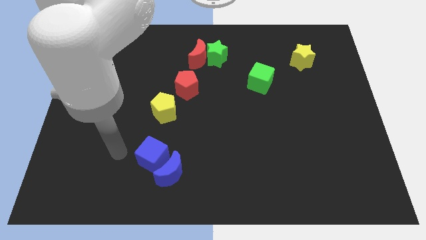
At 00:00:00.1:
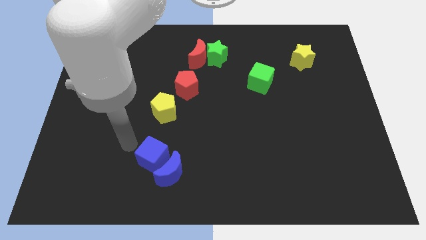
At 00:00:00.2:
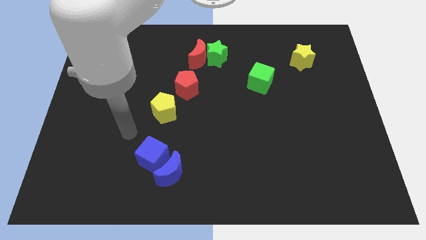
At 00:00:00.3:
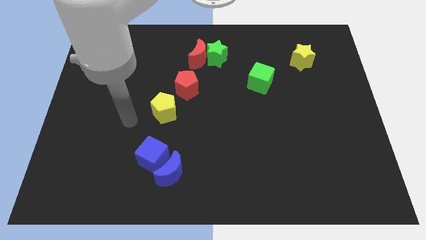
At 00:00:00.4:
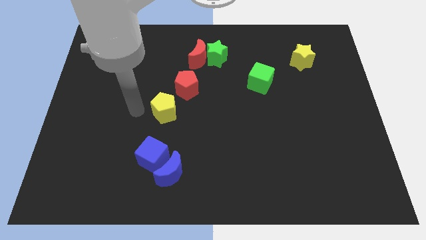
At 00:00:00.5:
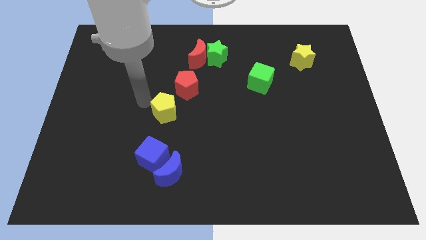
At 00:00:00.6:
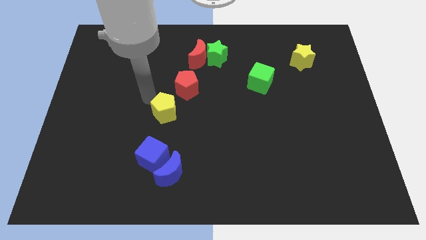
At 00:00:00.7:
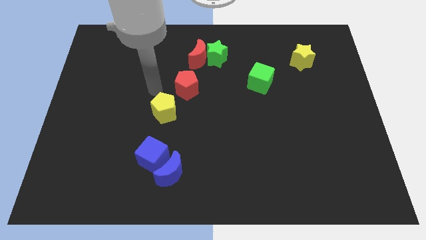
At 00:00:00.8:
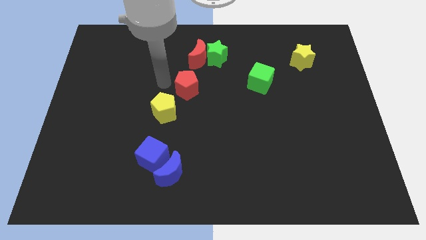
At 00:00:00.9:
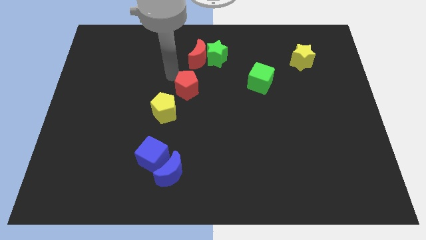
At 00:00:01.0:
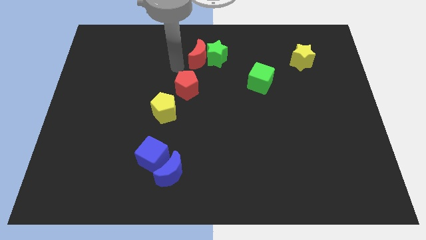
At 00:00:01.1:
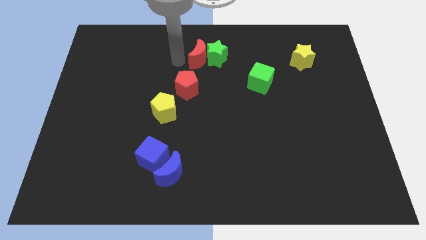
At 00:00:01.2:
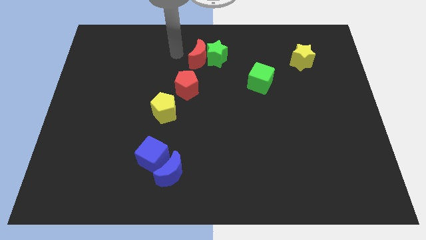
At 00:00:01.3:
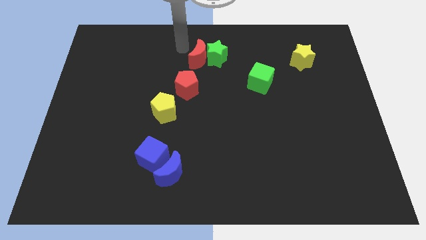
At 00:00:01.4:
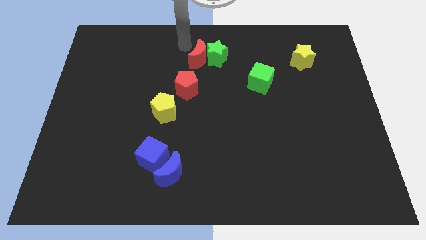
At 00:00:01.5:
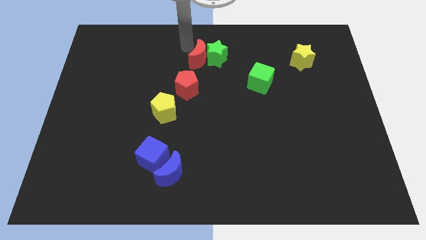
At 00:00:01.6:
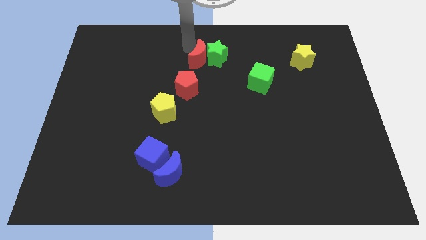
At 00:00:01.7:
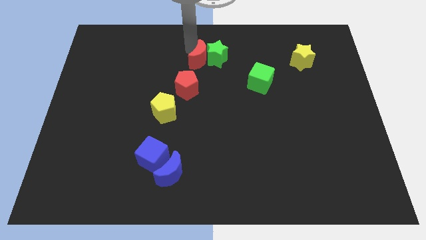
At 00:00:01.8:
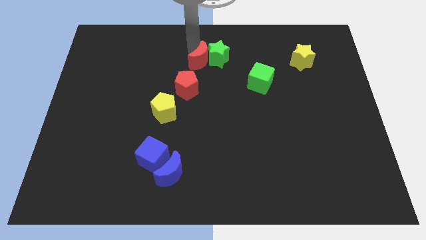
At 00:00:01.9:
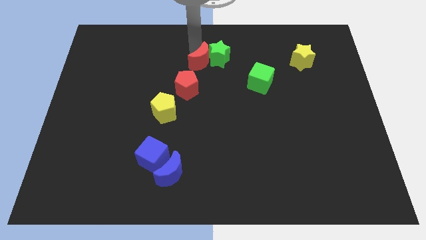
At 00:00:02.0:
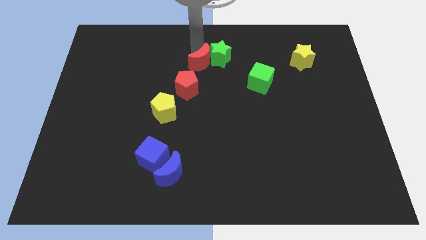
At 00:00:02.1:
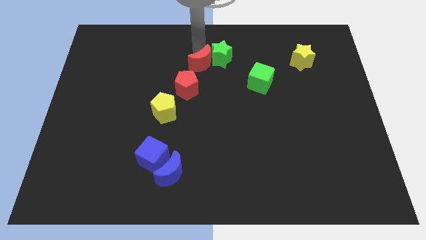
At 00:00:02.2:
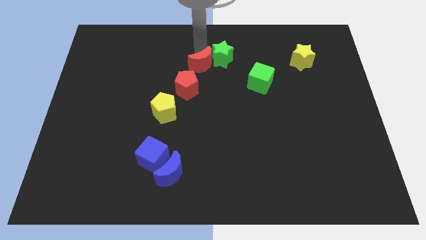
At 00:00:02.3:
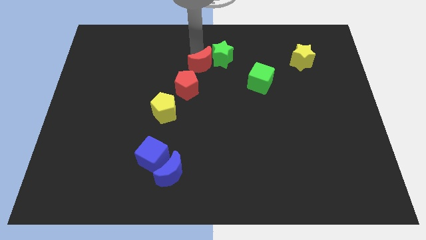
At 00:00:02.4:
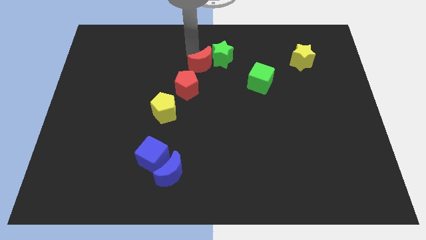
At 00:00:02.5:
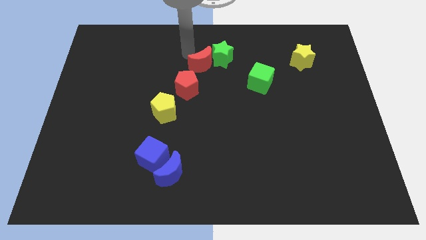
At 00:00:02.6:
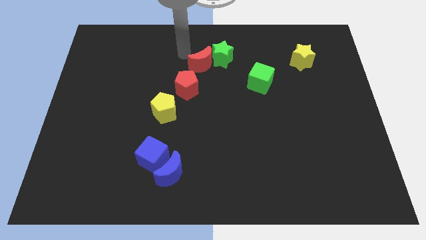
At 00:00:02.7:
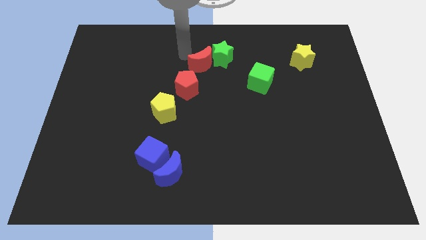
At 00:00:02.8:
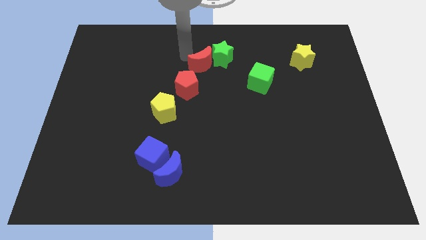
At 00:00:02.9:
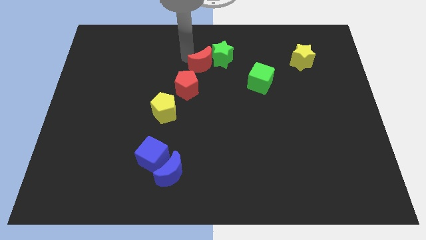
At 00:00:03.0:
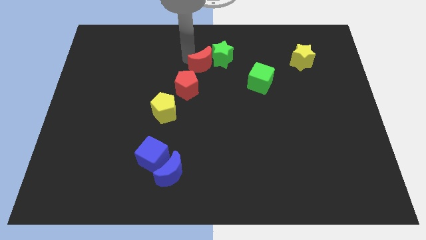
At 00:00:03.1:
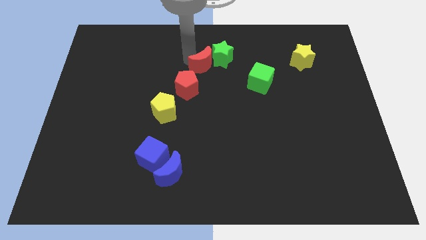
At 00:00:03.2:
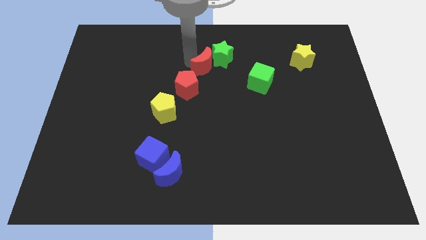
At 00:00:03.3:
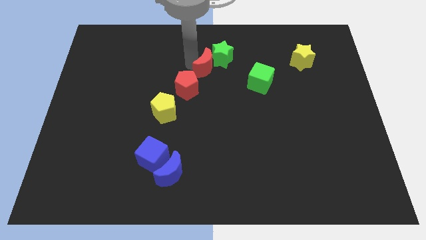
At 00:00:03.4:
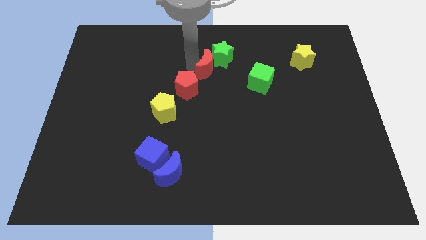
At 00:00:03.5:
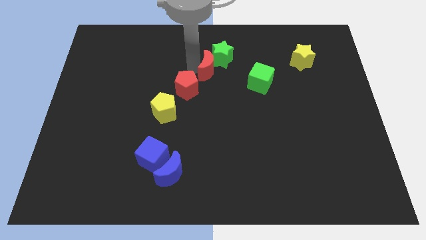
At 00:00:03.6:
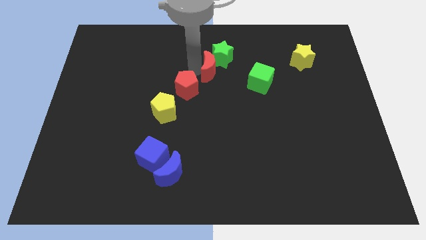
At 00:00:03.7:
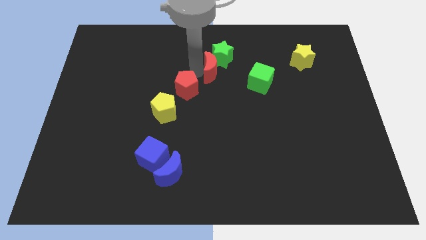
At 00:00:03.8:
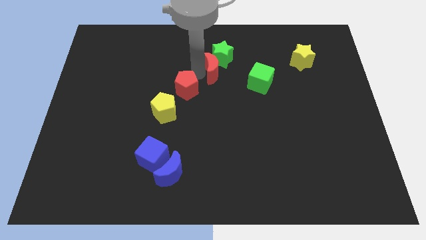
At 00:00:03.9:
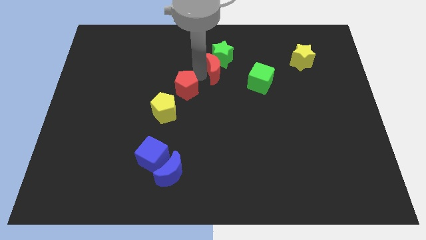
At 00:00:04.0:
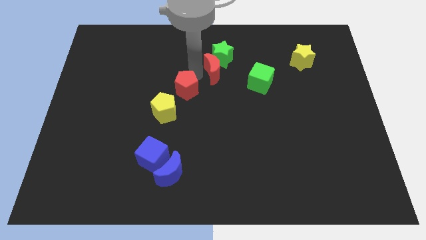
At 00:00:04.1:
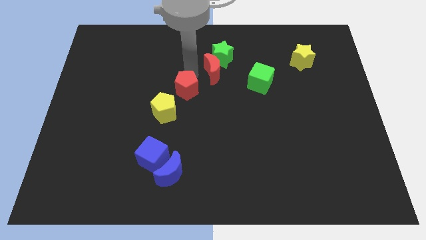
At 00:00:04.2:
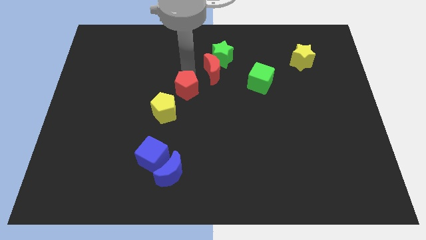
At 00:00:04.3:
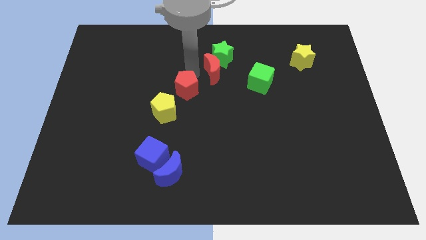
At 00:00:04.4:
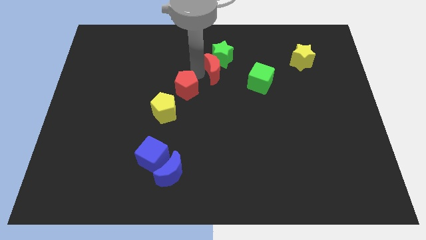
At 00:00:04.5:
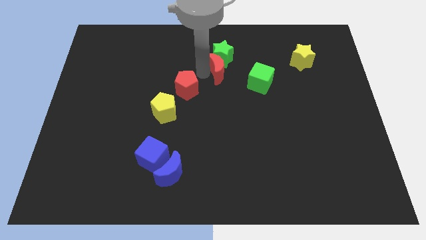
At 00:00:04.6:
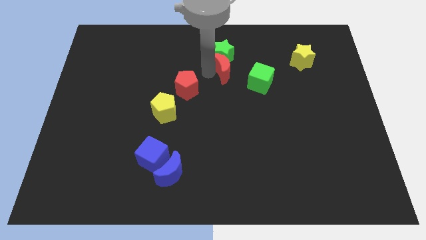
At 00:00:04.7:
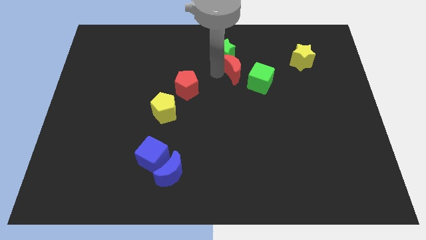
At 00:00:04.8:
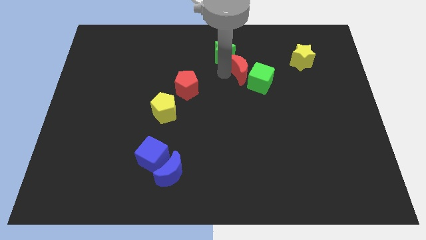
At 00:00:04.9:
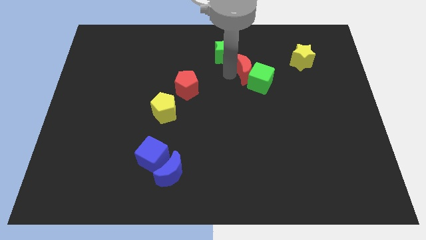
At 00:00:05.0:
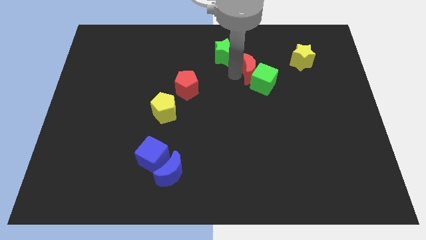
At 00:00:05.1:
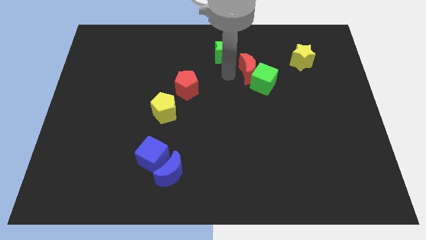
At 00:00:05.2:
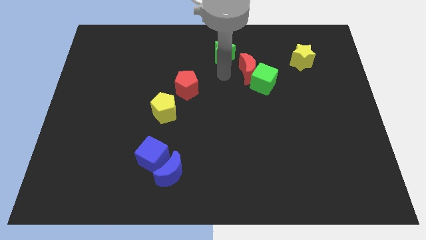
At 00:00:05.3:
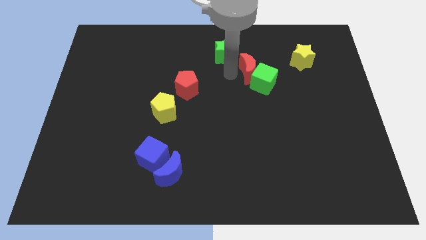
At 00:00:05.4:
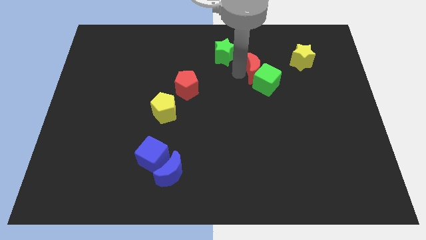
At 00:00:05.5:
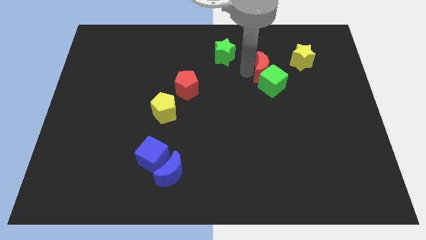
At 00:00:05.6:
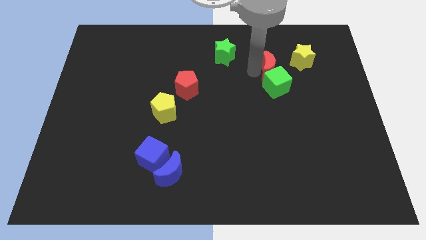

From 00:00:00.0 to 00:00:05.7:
put the red moon diagonally up and to the right of the green cube

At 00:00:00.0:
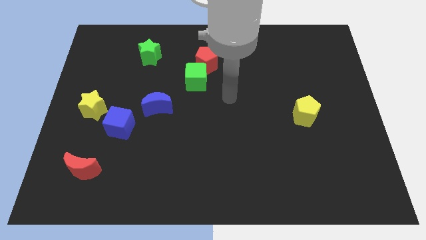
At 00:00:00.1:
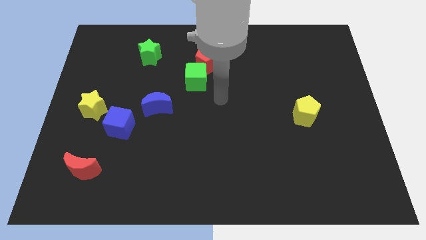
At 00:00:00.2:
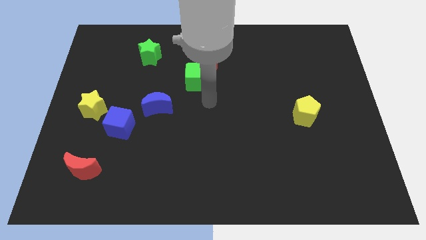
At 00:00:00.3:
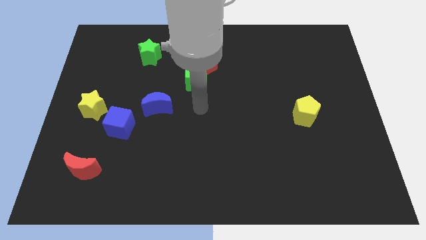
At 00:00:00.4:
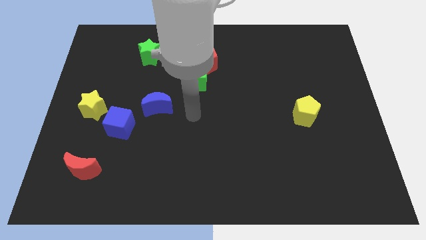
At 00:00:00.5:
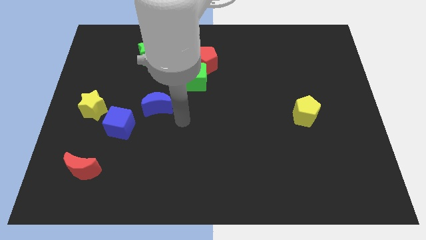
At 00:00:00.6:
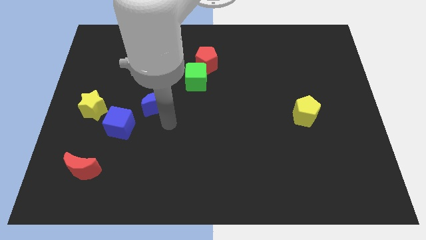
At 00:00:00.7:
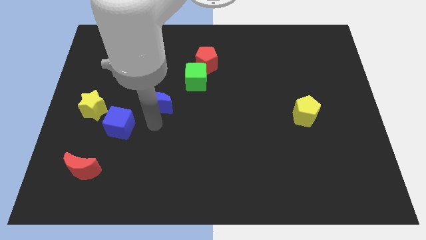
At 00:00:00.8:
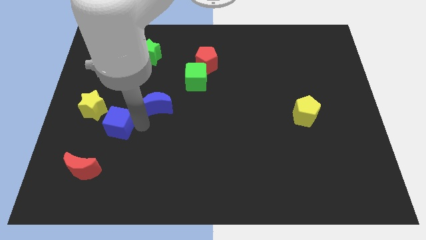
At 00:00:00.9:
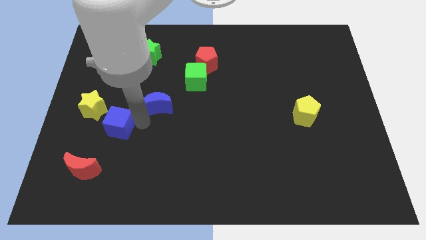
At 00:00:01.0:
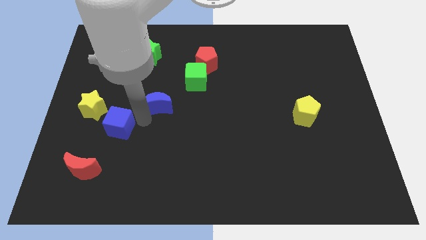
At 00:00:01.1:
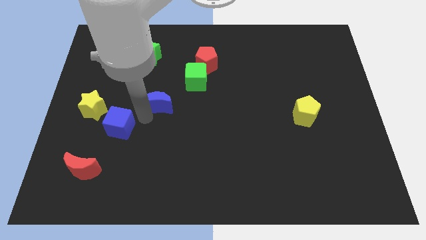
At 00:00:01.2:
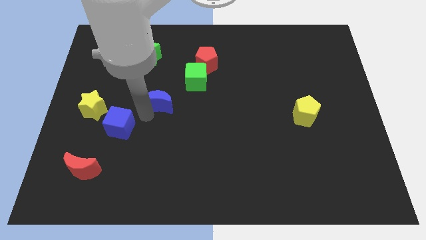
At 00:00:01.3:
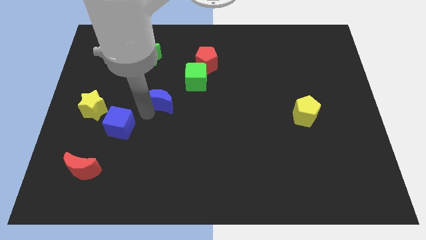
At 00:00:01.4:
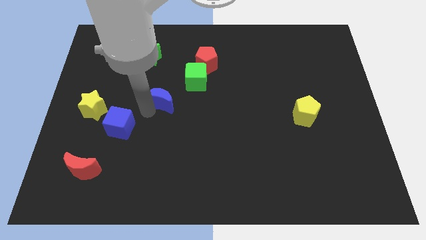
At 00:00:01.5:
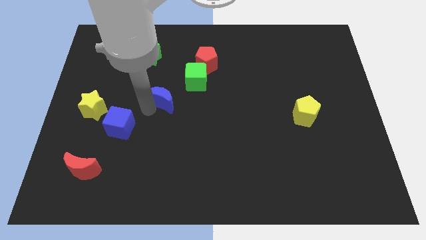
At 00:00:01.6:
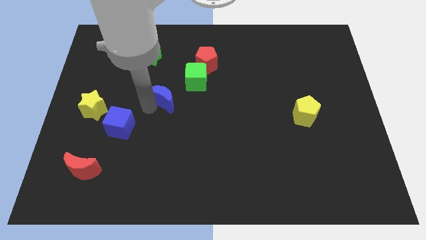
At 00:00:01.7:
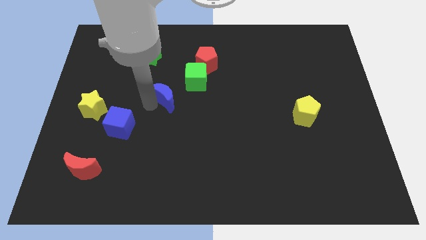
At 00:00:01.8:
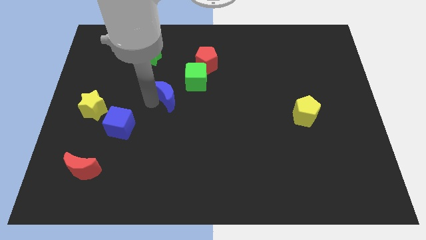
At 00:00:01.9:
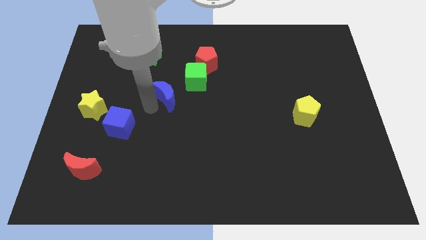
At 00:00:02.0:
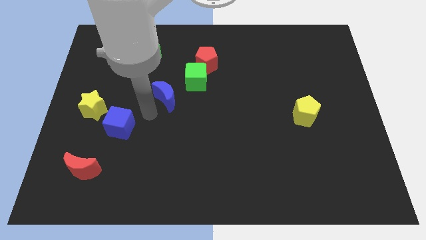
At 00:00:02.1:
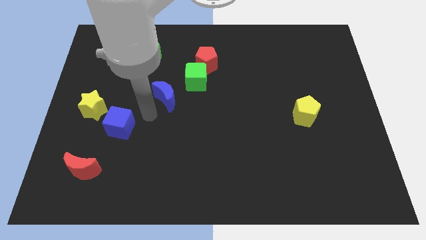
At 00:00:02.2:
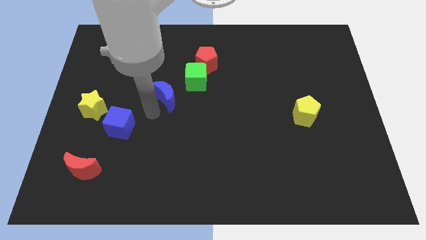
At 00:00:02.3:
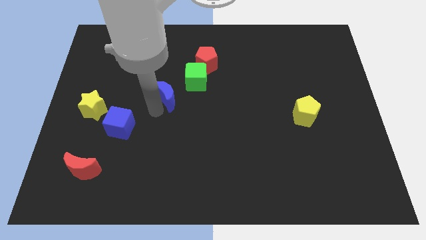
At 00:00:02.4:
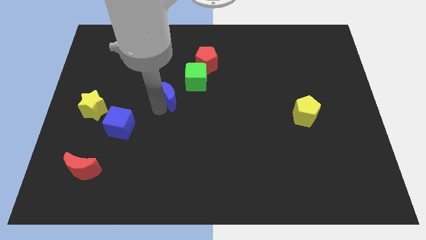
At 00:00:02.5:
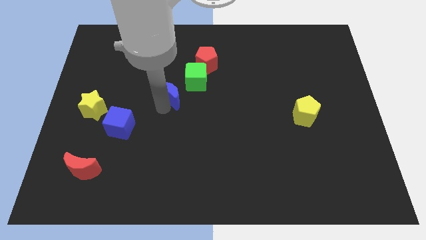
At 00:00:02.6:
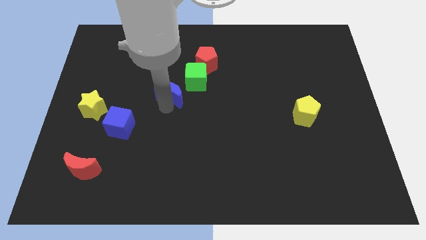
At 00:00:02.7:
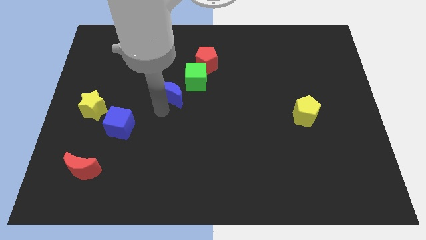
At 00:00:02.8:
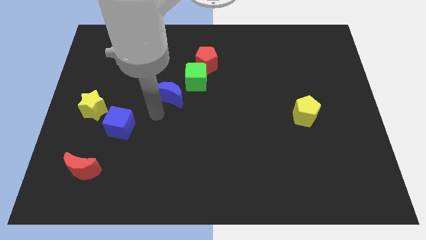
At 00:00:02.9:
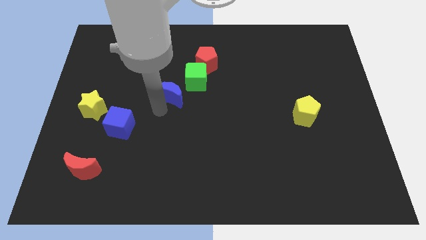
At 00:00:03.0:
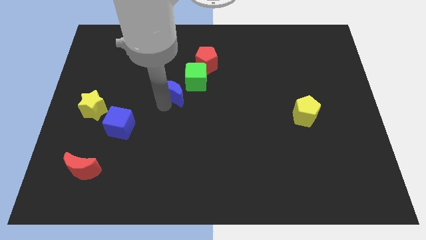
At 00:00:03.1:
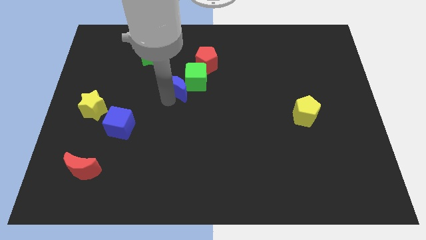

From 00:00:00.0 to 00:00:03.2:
slide the blue moon to the bottom left of the red pentagon
